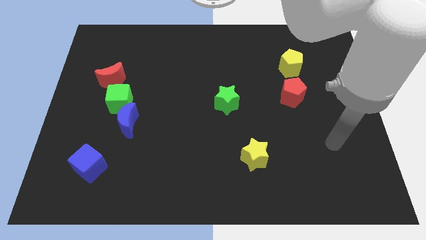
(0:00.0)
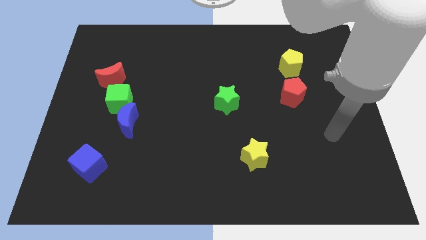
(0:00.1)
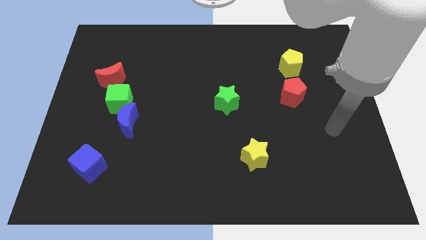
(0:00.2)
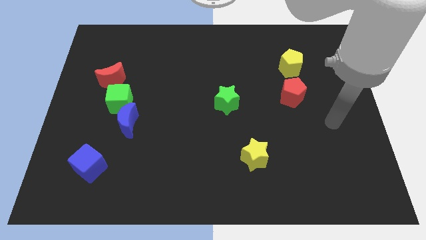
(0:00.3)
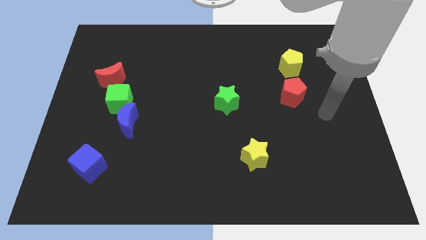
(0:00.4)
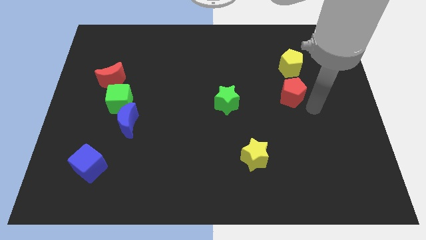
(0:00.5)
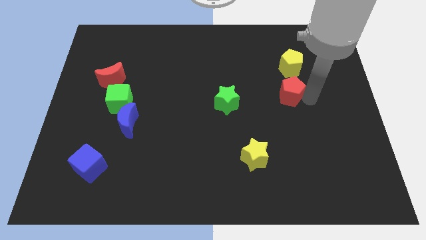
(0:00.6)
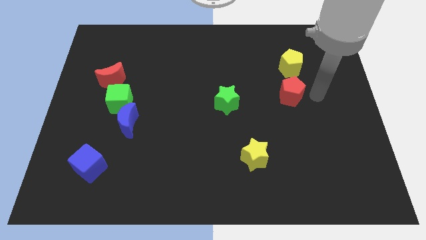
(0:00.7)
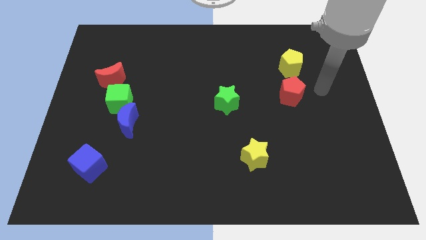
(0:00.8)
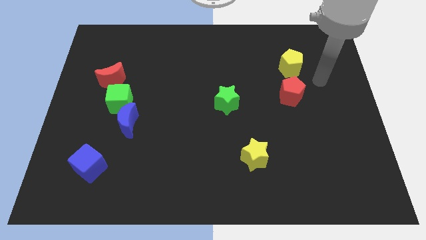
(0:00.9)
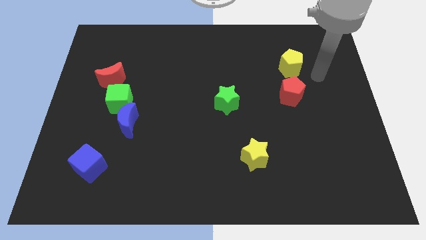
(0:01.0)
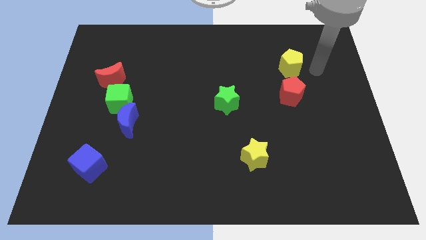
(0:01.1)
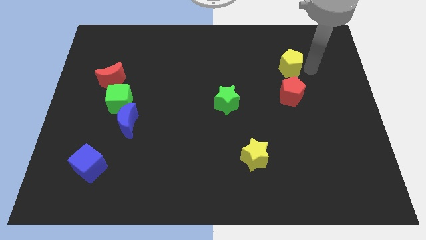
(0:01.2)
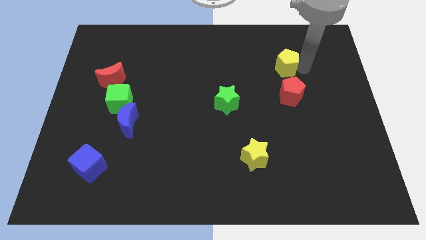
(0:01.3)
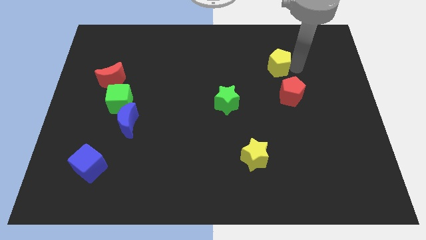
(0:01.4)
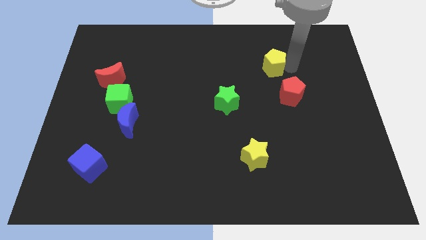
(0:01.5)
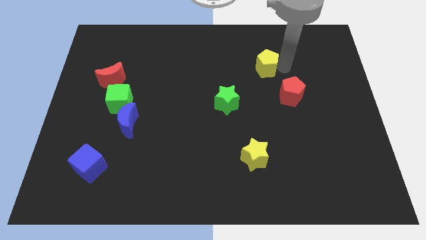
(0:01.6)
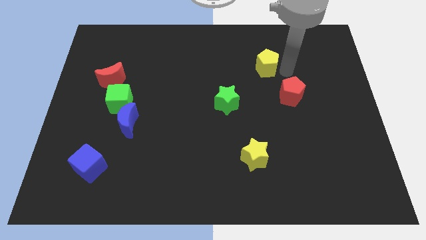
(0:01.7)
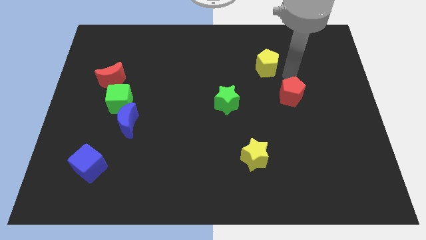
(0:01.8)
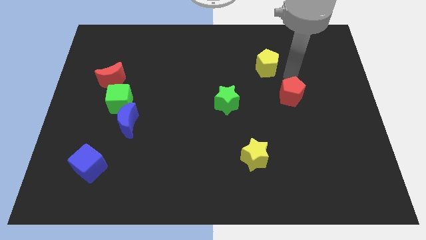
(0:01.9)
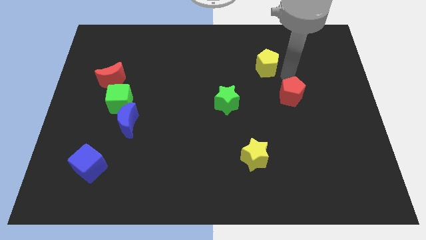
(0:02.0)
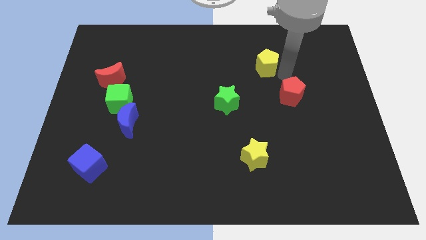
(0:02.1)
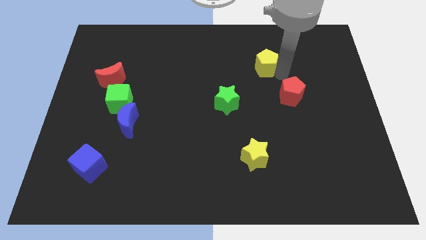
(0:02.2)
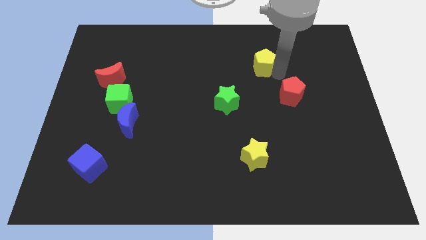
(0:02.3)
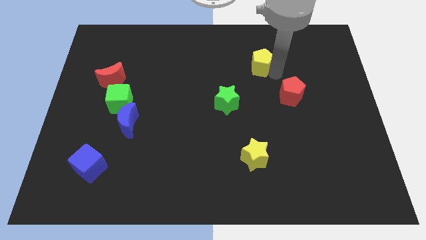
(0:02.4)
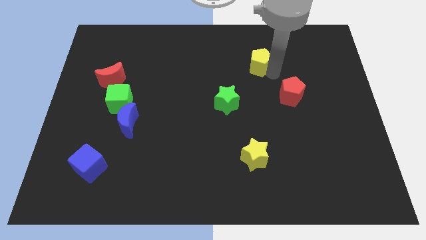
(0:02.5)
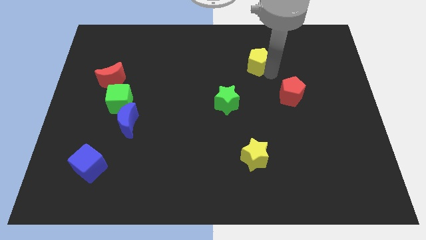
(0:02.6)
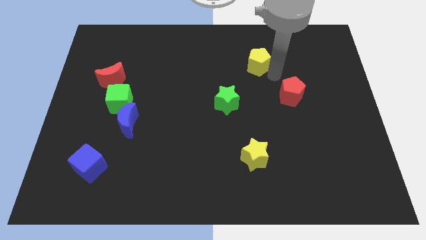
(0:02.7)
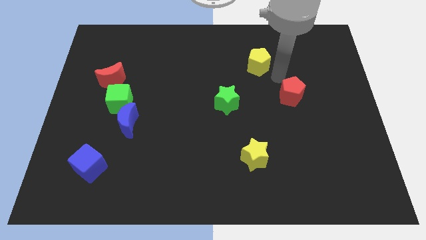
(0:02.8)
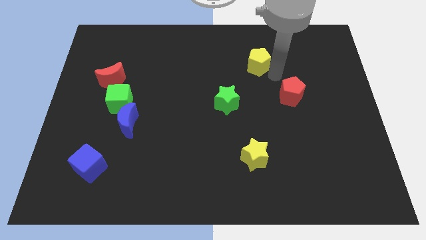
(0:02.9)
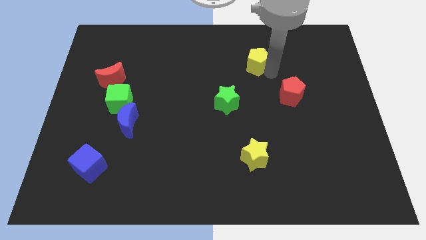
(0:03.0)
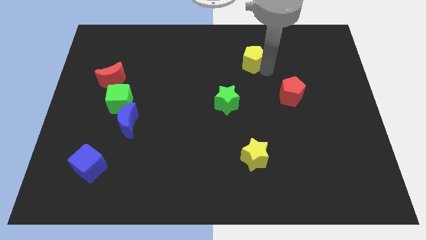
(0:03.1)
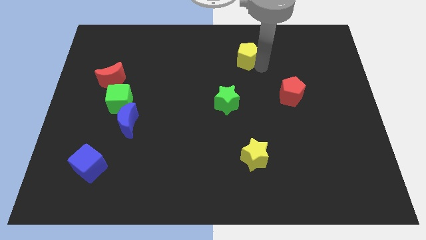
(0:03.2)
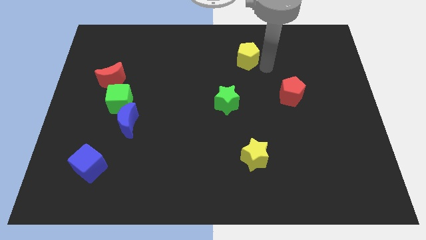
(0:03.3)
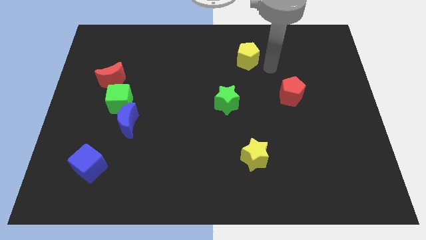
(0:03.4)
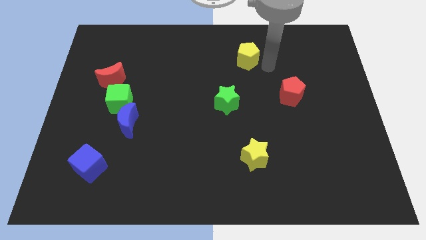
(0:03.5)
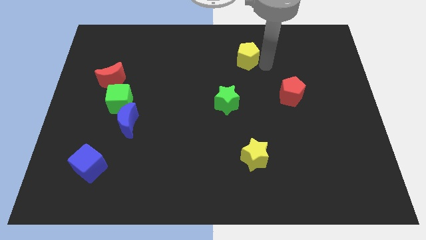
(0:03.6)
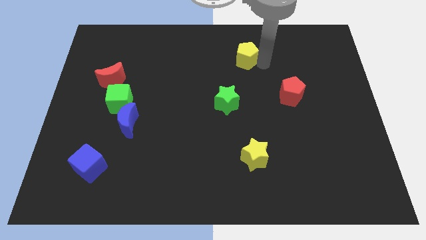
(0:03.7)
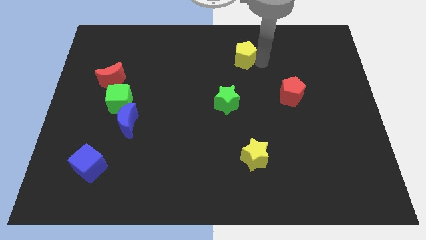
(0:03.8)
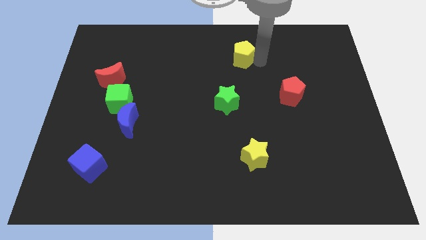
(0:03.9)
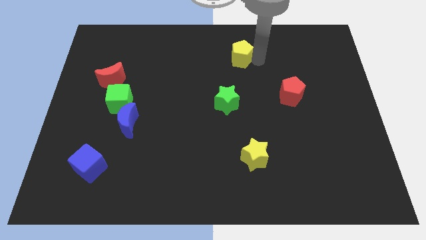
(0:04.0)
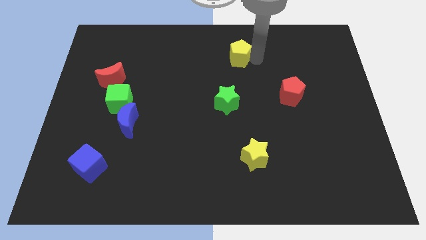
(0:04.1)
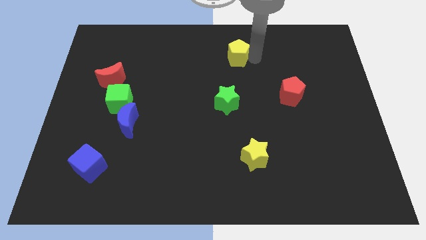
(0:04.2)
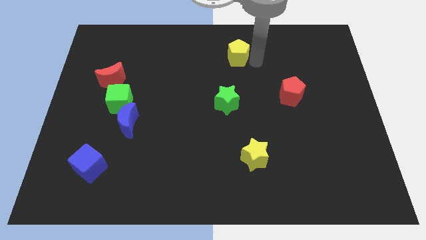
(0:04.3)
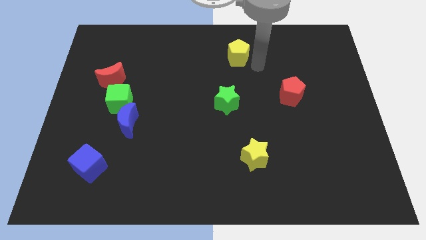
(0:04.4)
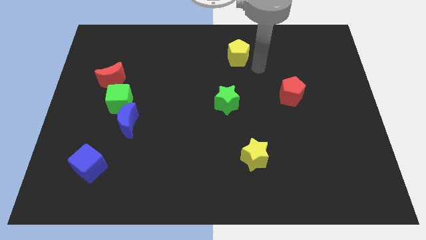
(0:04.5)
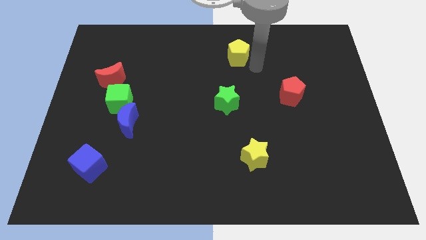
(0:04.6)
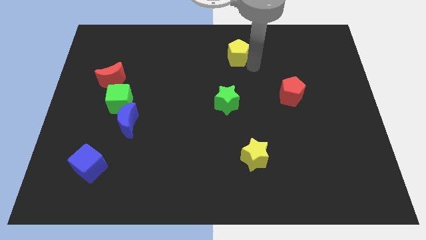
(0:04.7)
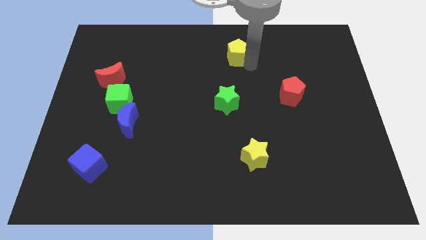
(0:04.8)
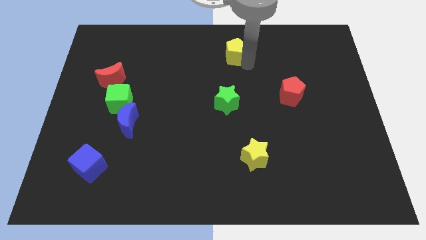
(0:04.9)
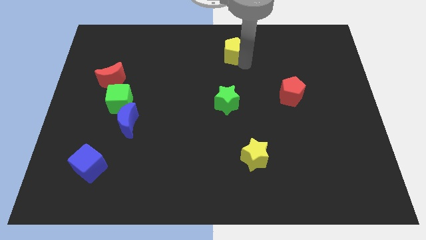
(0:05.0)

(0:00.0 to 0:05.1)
put the yellow pentagon to the towards your base
